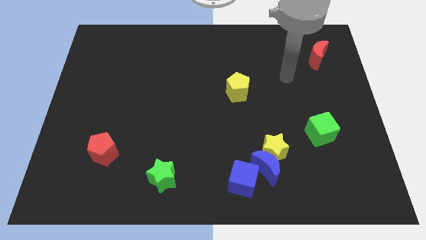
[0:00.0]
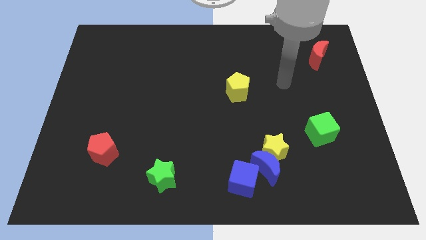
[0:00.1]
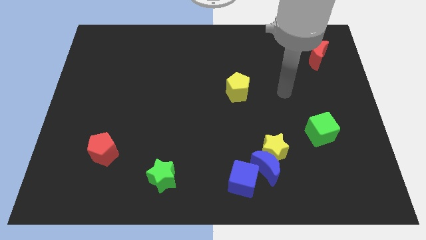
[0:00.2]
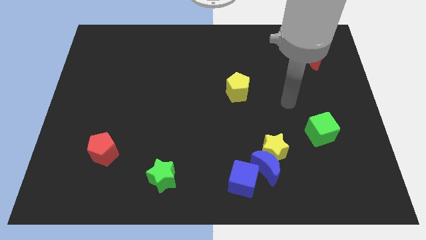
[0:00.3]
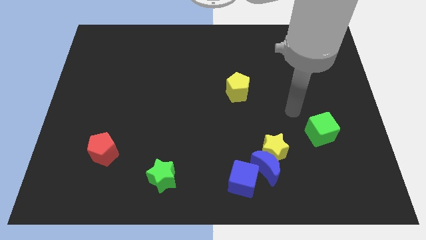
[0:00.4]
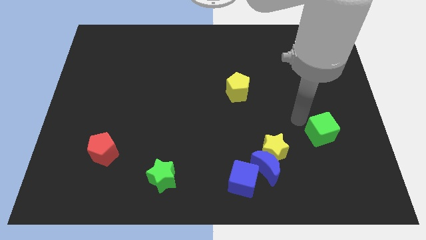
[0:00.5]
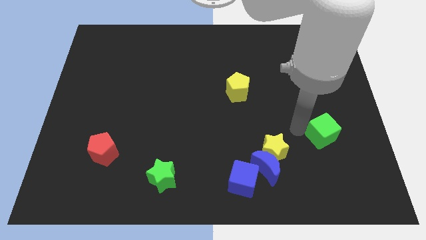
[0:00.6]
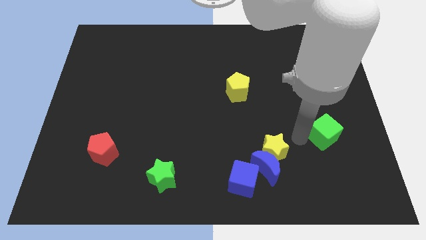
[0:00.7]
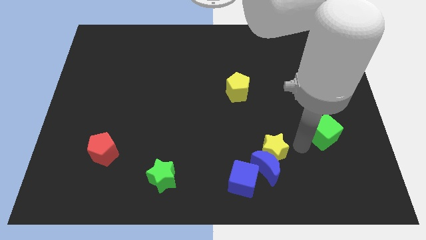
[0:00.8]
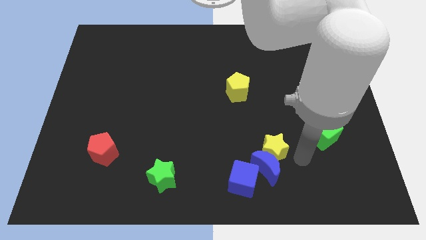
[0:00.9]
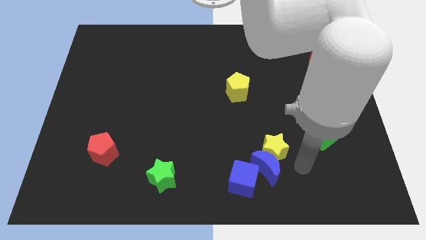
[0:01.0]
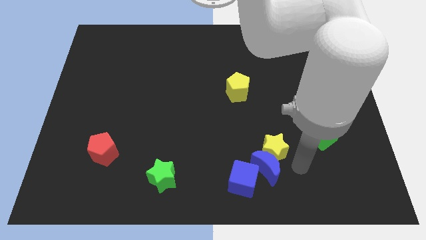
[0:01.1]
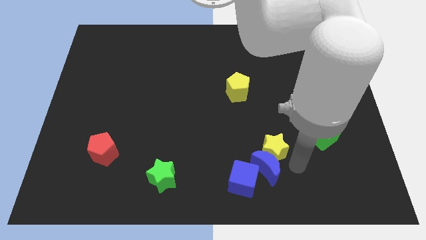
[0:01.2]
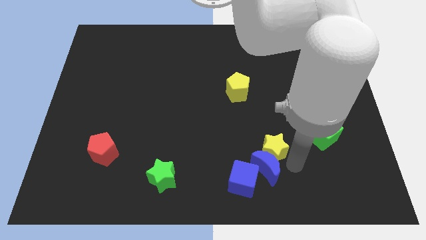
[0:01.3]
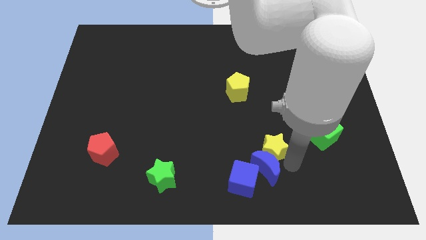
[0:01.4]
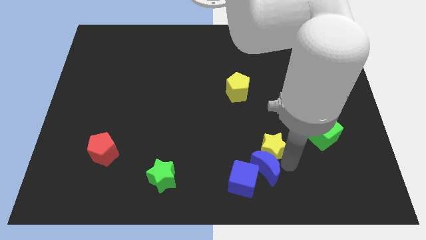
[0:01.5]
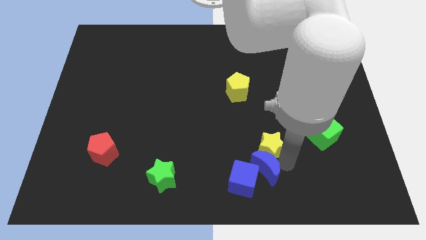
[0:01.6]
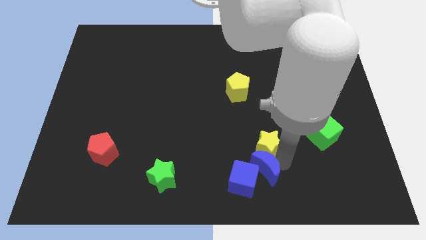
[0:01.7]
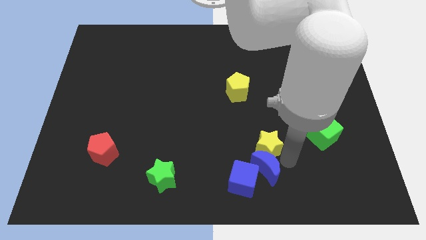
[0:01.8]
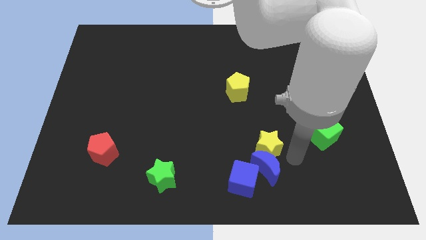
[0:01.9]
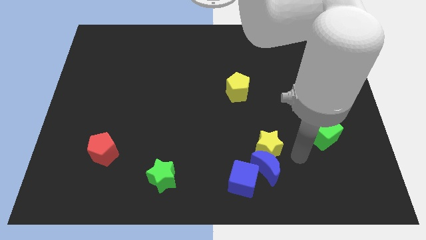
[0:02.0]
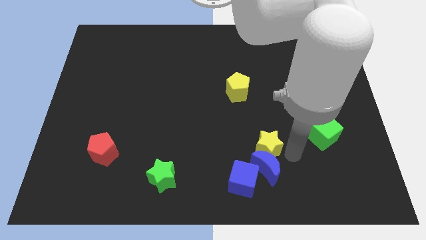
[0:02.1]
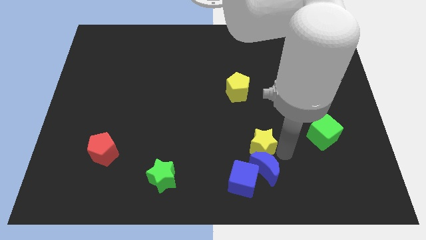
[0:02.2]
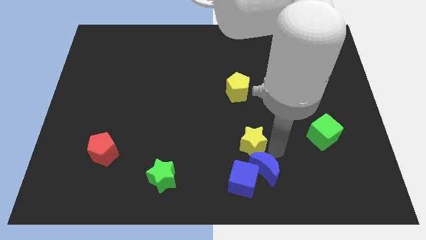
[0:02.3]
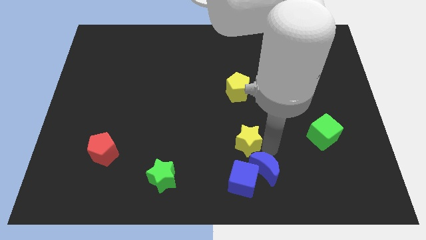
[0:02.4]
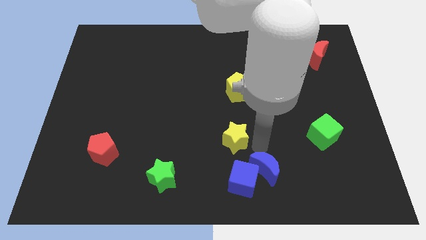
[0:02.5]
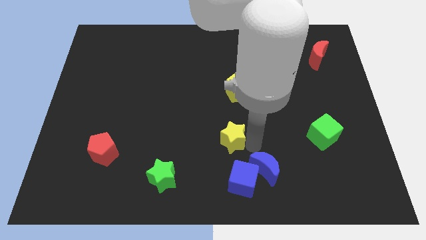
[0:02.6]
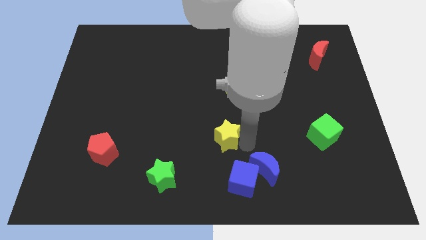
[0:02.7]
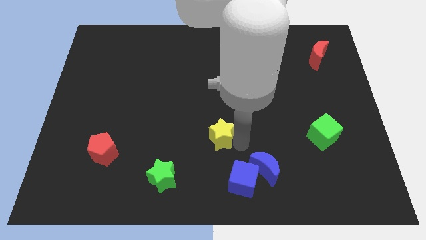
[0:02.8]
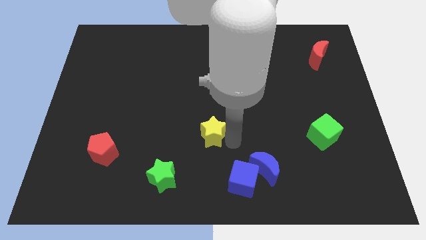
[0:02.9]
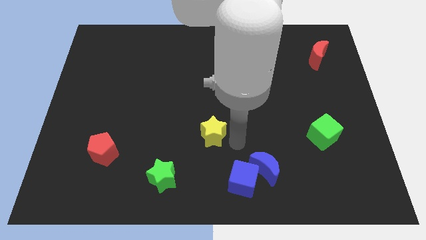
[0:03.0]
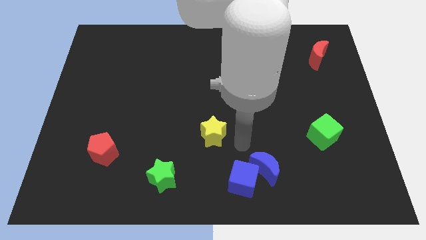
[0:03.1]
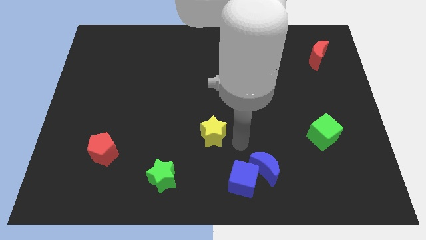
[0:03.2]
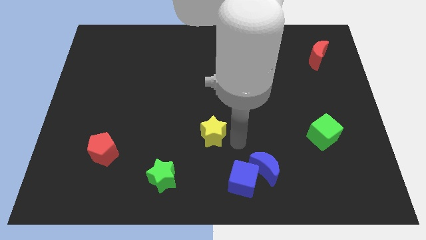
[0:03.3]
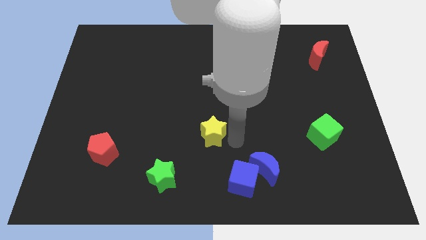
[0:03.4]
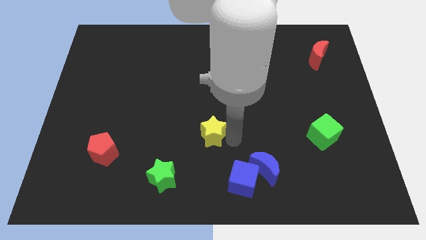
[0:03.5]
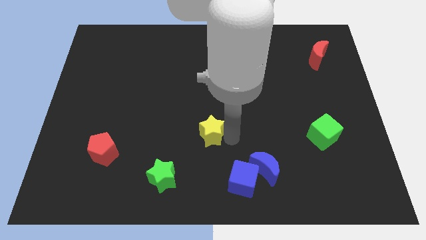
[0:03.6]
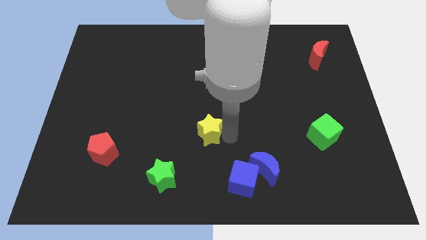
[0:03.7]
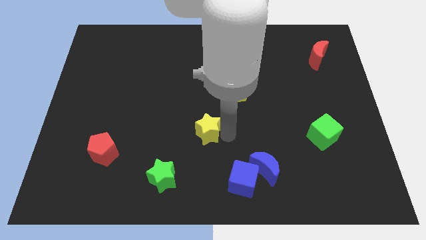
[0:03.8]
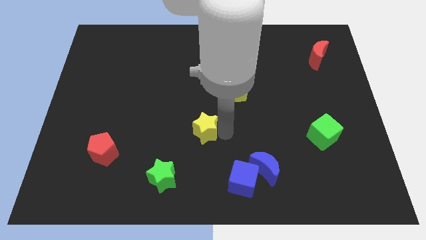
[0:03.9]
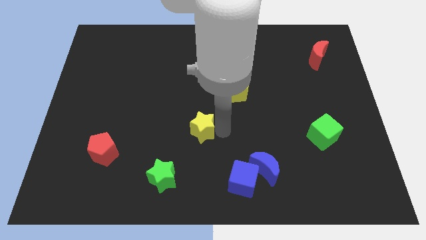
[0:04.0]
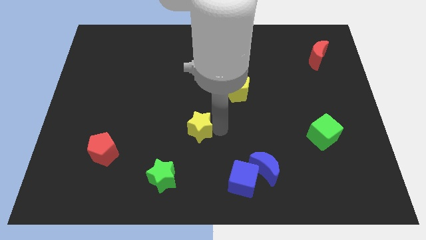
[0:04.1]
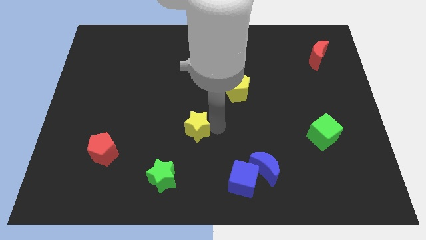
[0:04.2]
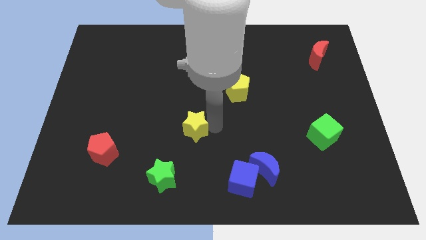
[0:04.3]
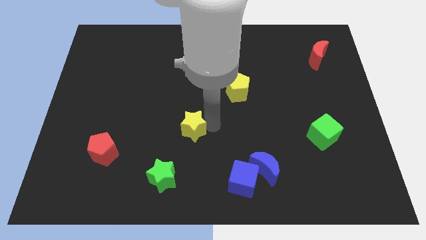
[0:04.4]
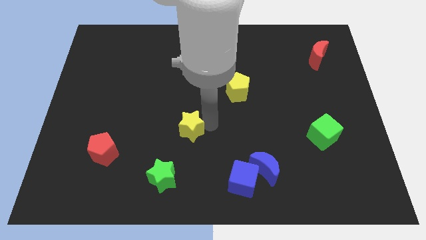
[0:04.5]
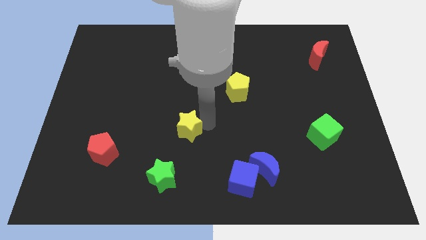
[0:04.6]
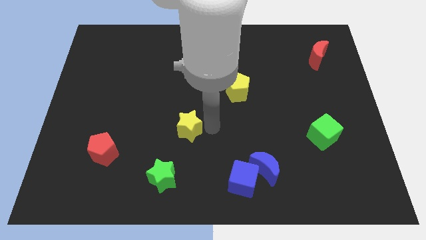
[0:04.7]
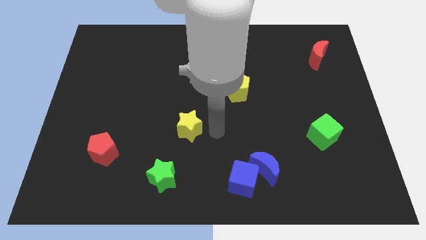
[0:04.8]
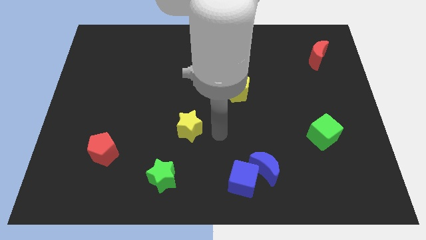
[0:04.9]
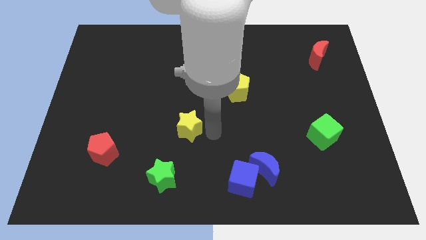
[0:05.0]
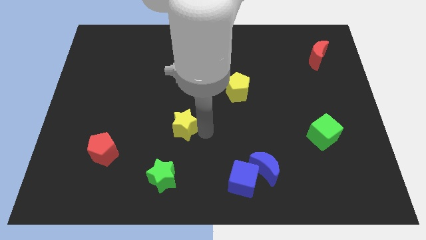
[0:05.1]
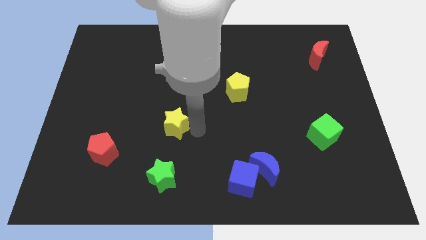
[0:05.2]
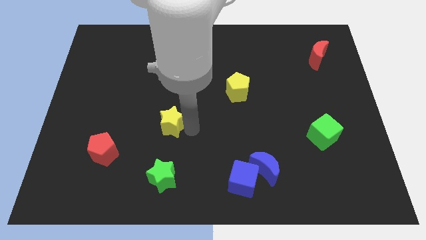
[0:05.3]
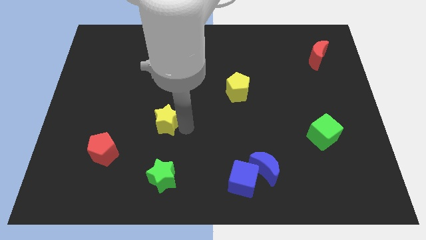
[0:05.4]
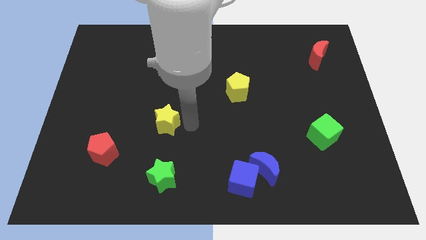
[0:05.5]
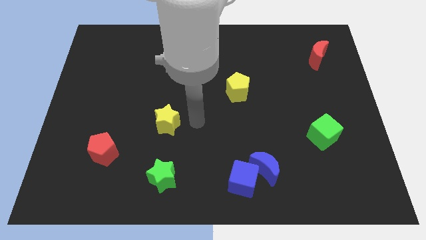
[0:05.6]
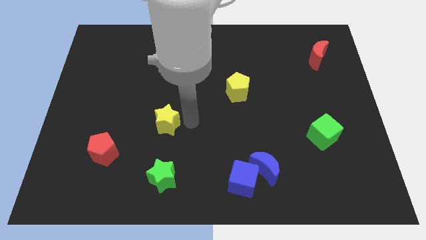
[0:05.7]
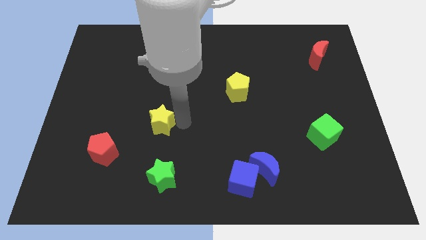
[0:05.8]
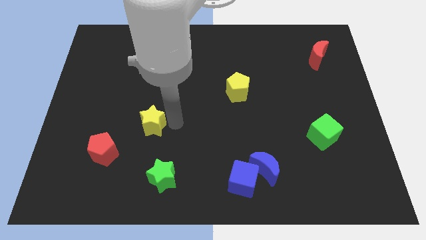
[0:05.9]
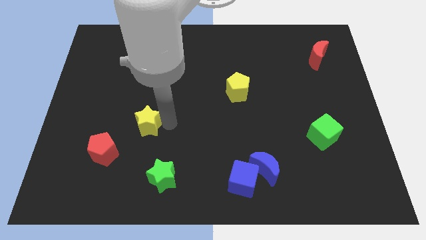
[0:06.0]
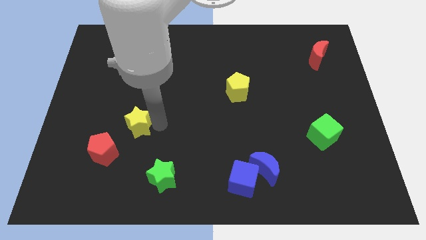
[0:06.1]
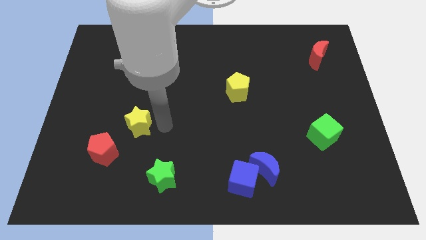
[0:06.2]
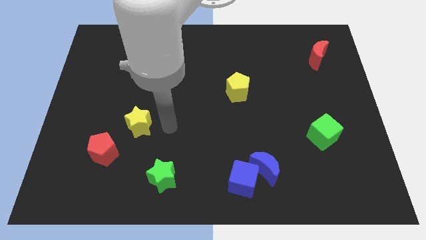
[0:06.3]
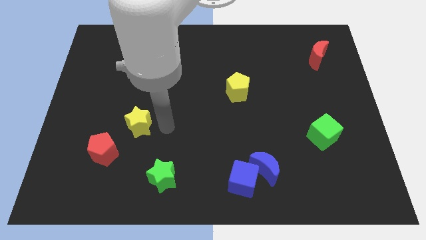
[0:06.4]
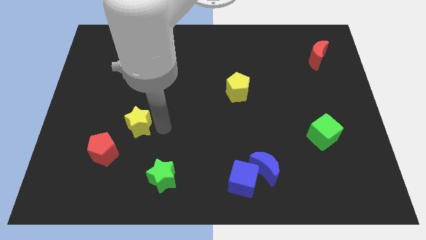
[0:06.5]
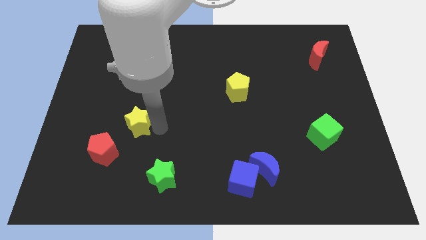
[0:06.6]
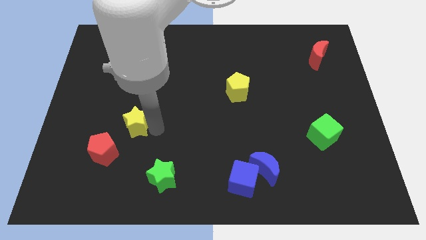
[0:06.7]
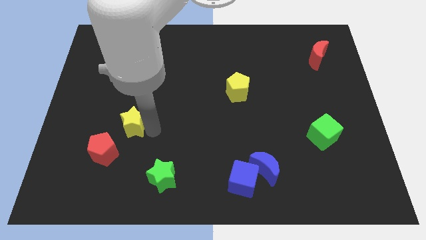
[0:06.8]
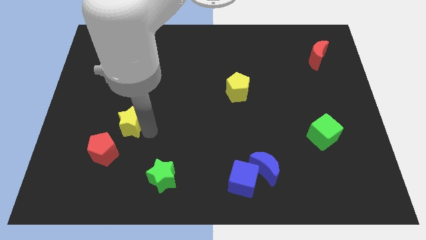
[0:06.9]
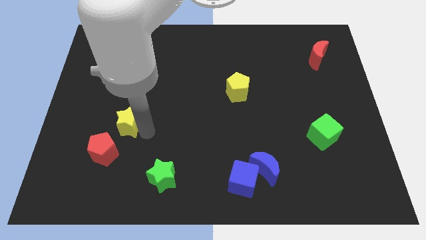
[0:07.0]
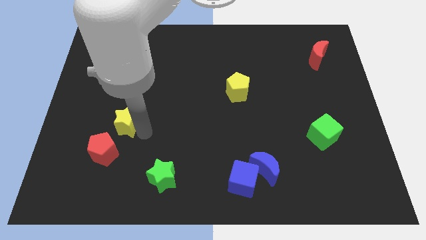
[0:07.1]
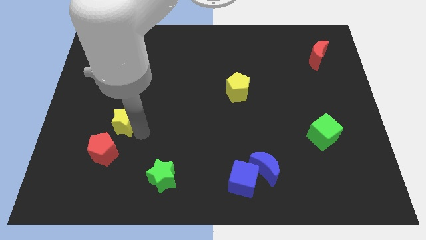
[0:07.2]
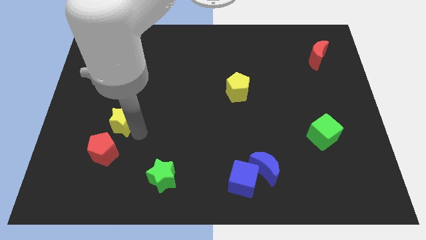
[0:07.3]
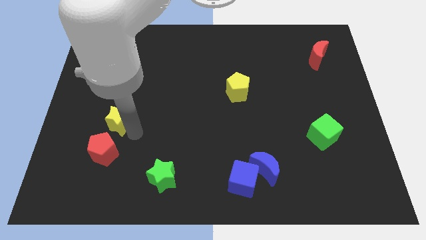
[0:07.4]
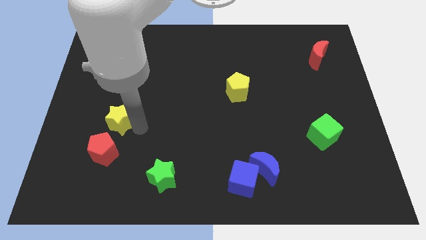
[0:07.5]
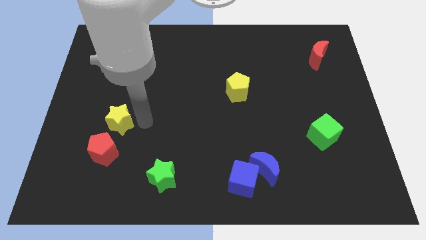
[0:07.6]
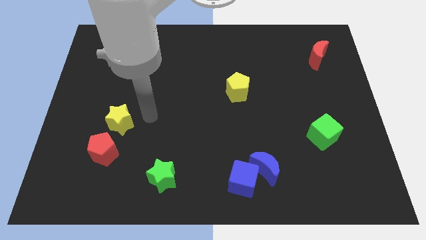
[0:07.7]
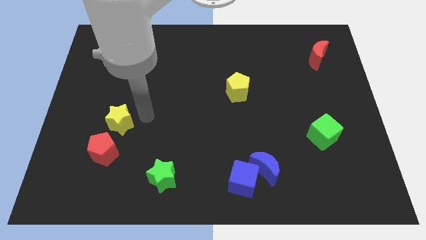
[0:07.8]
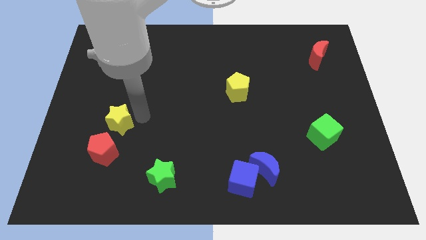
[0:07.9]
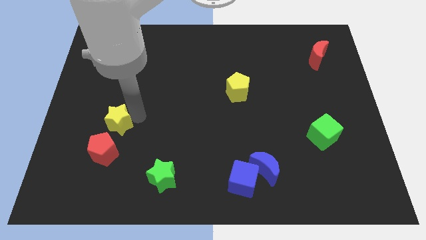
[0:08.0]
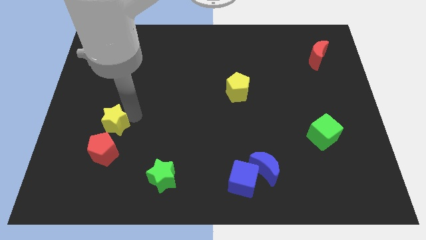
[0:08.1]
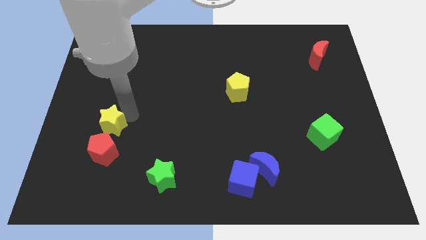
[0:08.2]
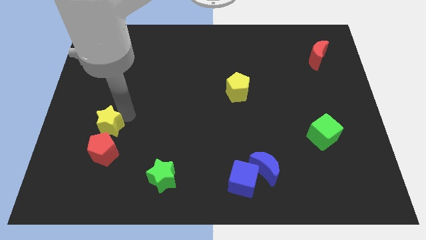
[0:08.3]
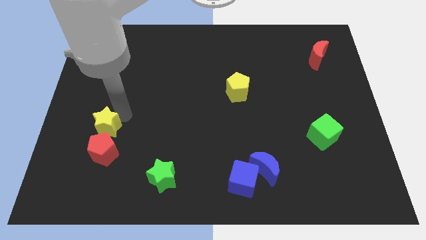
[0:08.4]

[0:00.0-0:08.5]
push the yellow star to the top left side of the red pentagon

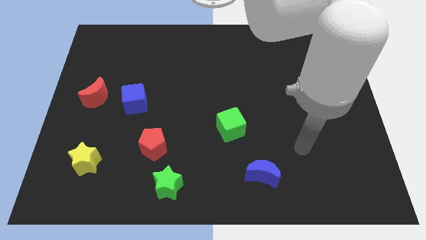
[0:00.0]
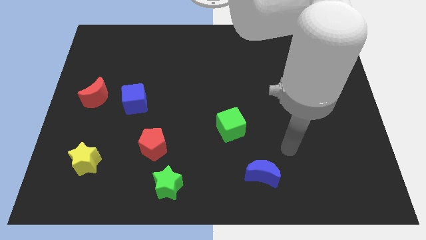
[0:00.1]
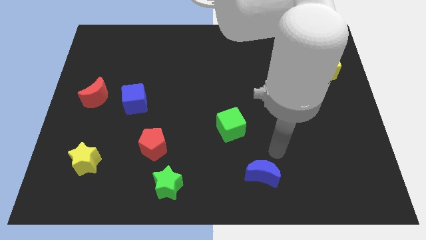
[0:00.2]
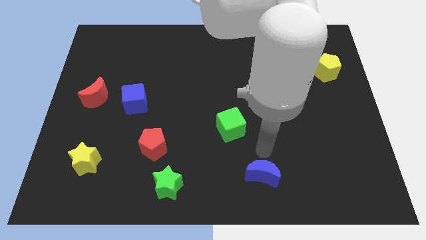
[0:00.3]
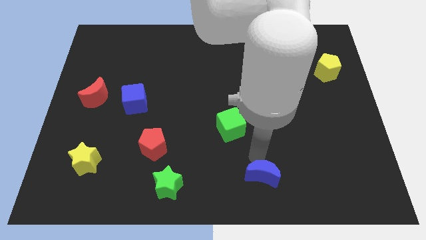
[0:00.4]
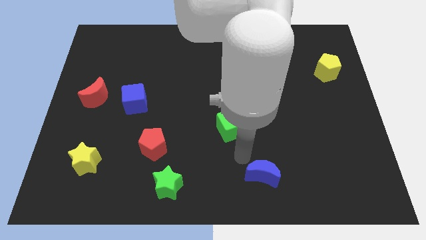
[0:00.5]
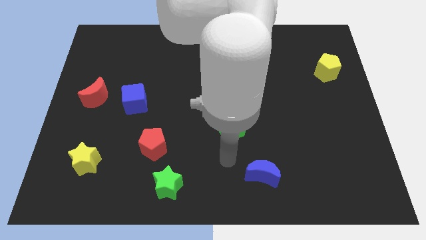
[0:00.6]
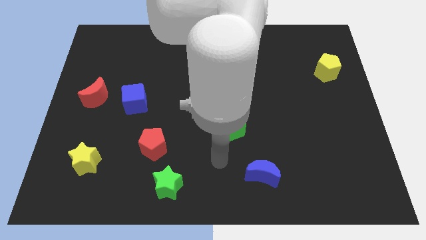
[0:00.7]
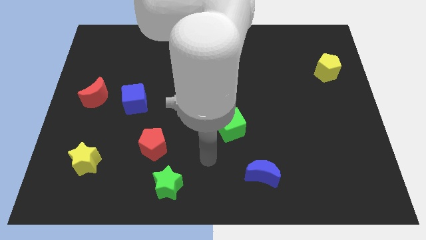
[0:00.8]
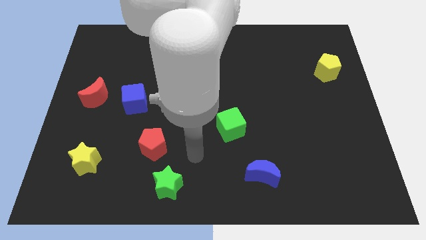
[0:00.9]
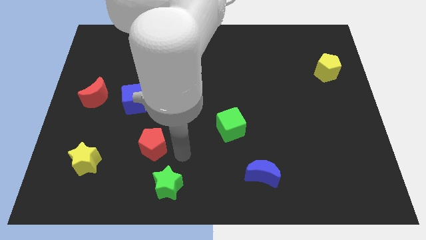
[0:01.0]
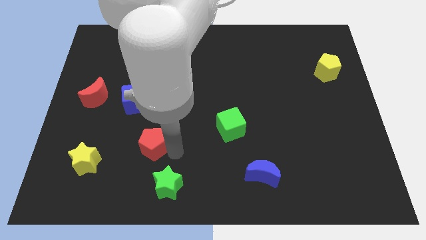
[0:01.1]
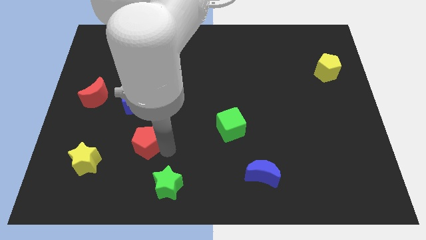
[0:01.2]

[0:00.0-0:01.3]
slide the red pentagon below the blue cube
